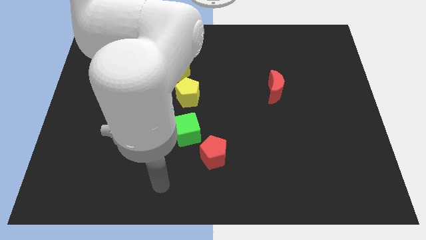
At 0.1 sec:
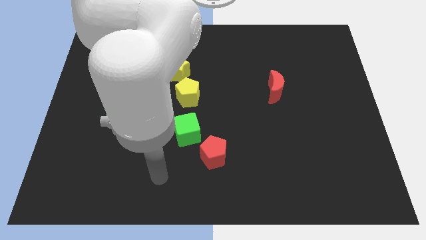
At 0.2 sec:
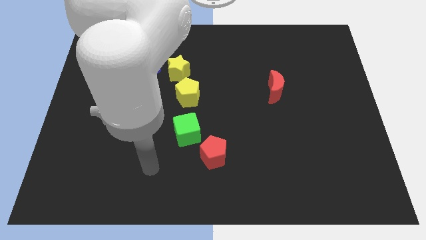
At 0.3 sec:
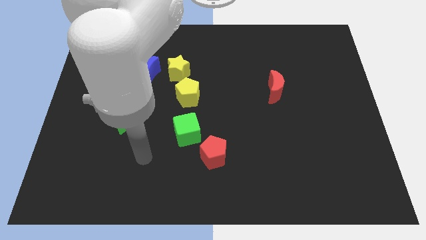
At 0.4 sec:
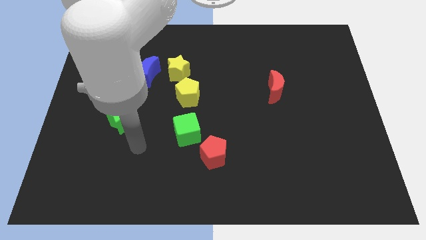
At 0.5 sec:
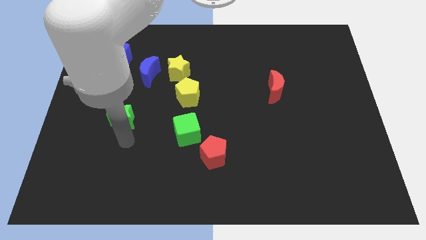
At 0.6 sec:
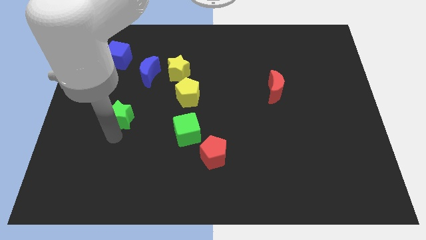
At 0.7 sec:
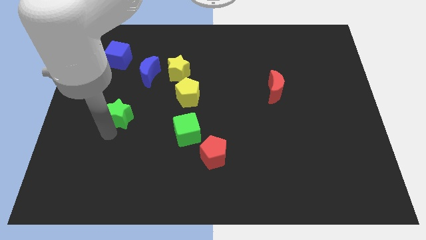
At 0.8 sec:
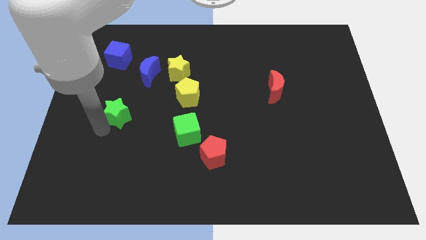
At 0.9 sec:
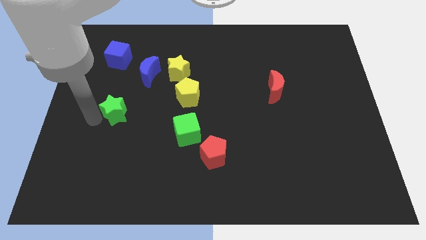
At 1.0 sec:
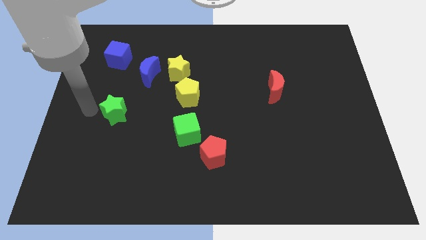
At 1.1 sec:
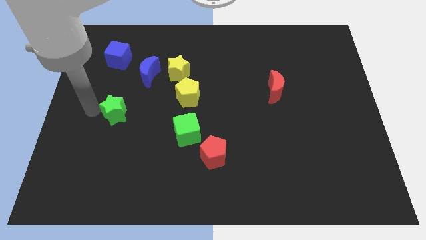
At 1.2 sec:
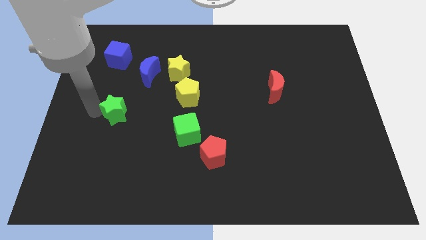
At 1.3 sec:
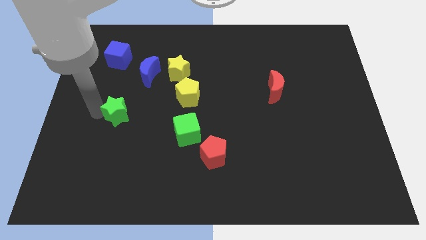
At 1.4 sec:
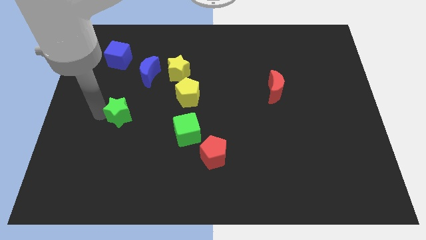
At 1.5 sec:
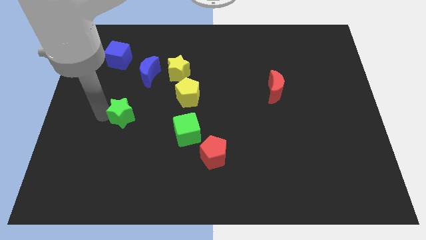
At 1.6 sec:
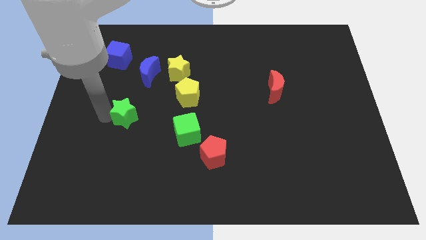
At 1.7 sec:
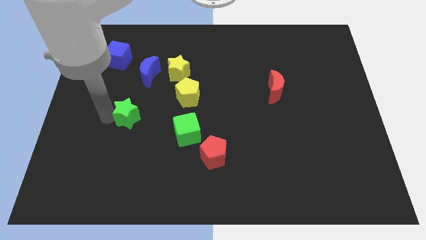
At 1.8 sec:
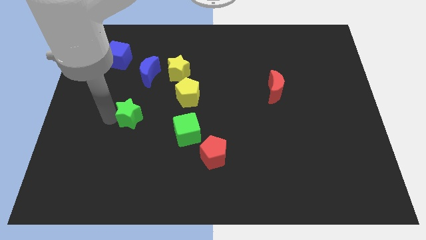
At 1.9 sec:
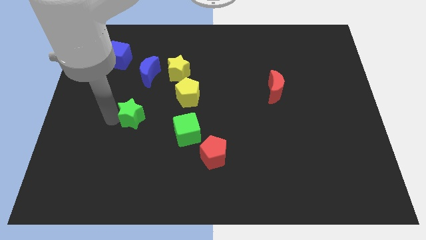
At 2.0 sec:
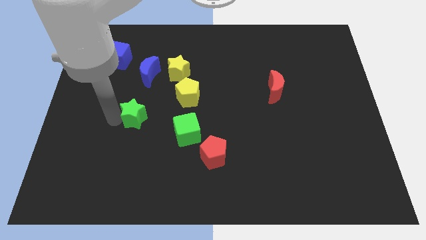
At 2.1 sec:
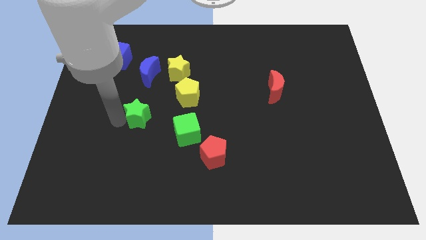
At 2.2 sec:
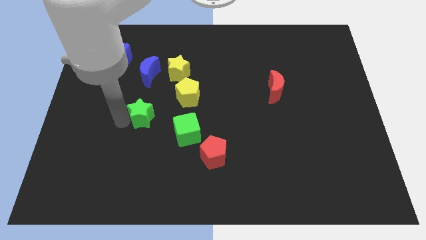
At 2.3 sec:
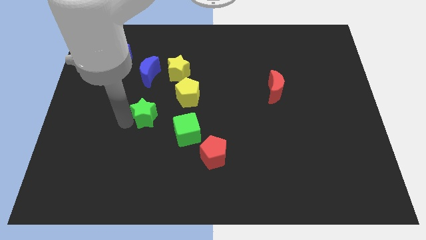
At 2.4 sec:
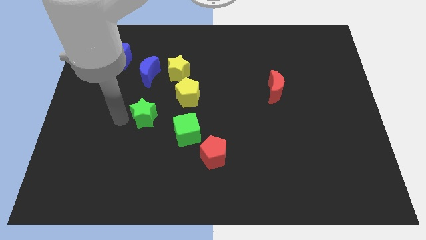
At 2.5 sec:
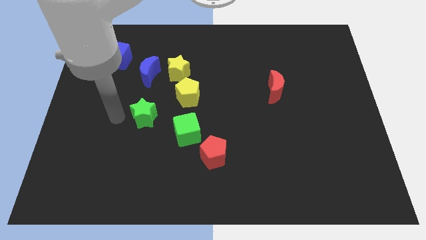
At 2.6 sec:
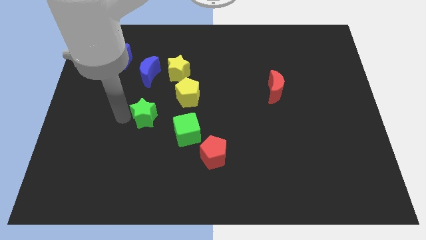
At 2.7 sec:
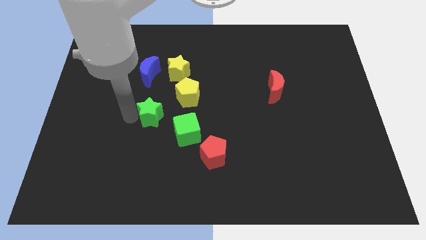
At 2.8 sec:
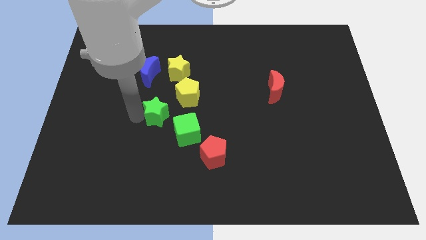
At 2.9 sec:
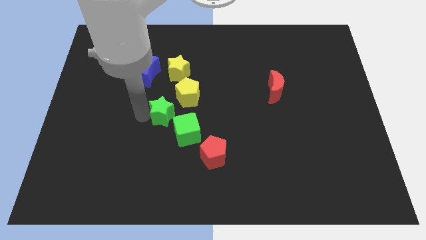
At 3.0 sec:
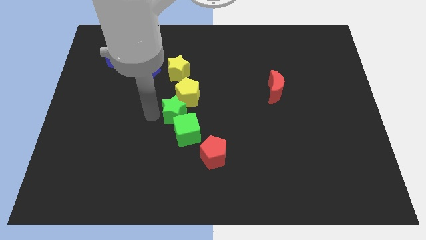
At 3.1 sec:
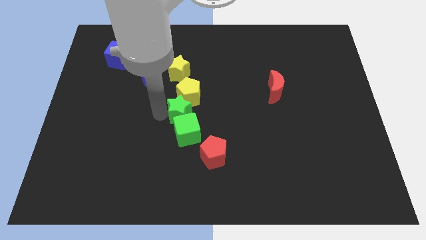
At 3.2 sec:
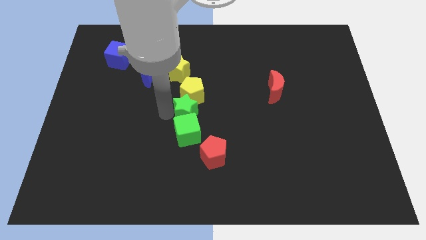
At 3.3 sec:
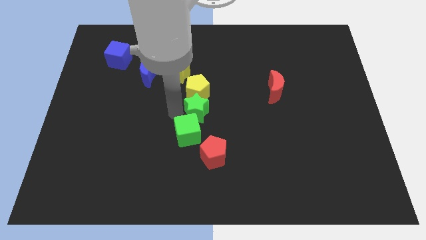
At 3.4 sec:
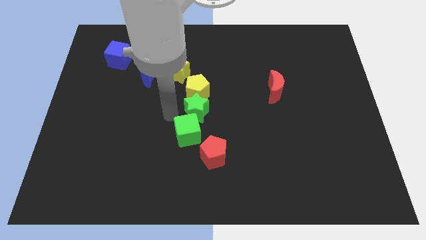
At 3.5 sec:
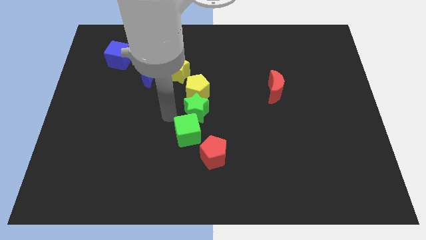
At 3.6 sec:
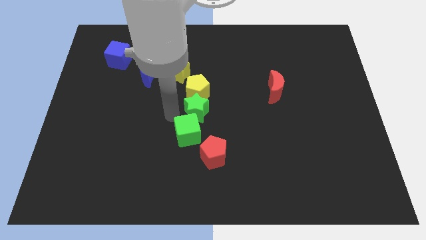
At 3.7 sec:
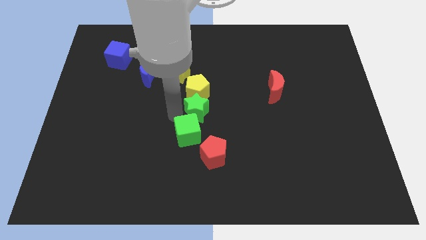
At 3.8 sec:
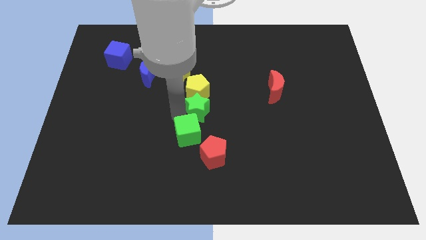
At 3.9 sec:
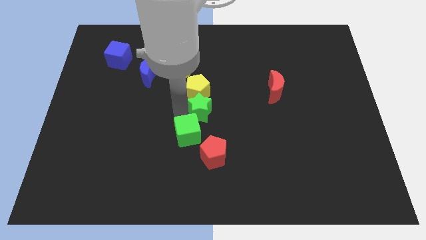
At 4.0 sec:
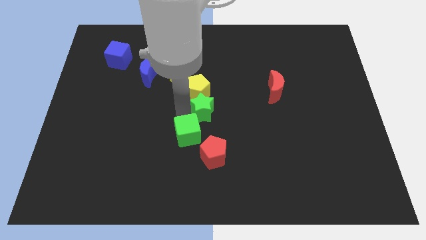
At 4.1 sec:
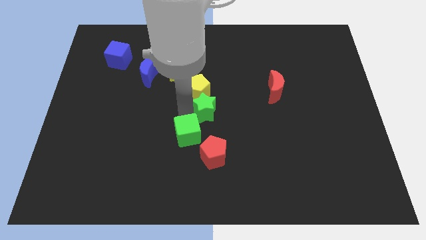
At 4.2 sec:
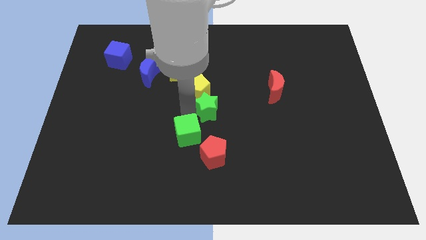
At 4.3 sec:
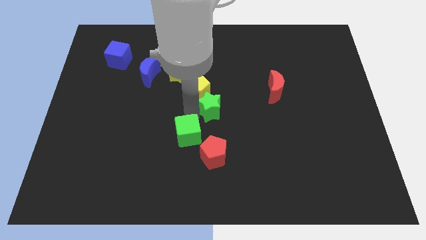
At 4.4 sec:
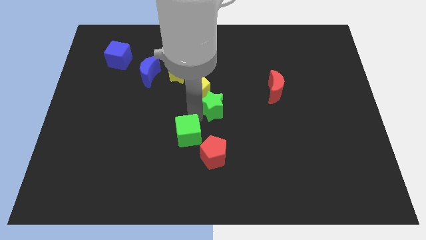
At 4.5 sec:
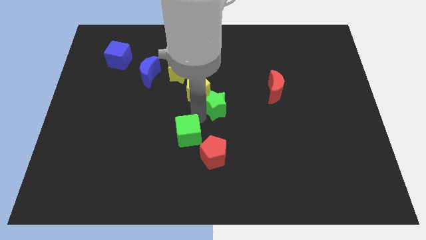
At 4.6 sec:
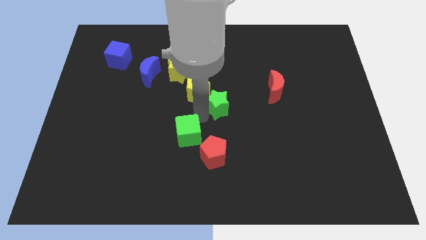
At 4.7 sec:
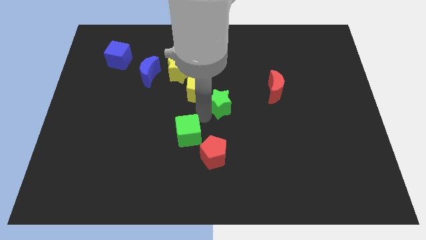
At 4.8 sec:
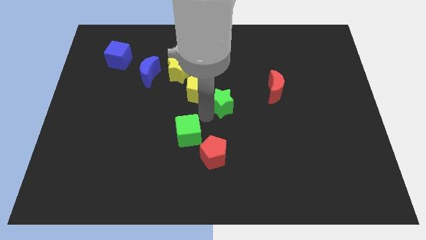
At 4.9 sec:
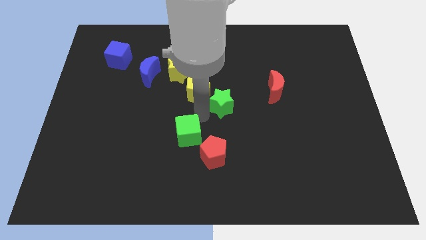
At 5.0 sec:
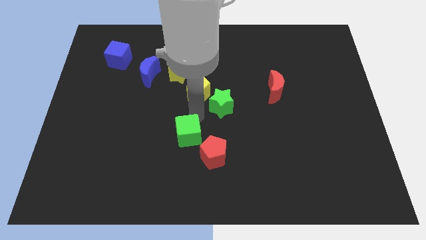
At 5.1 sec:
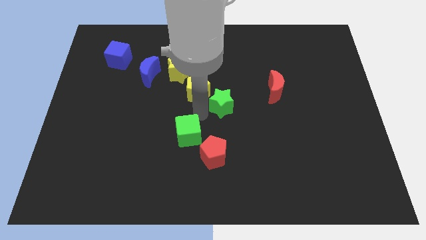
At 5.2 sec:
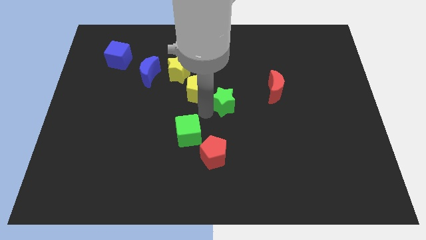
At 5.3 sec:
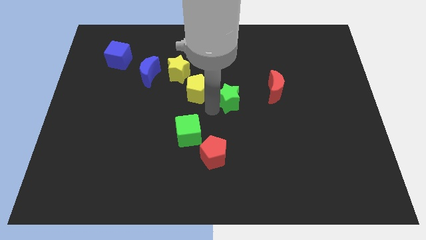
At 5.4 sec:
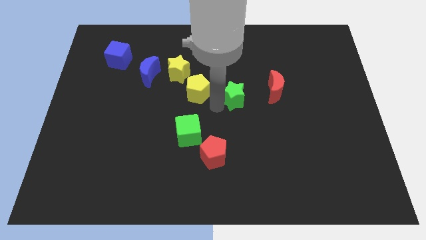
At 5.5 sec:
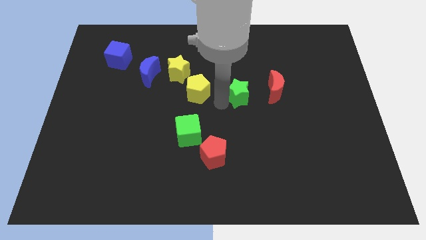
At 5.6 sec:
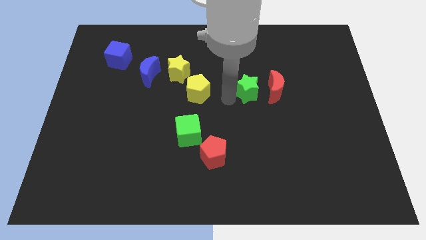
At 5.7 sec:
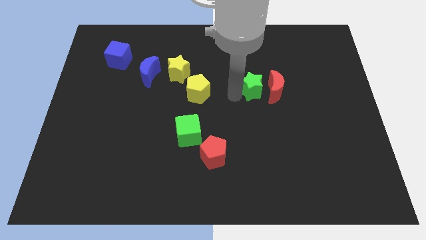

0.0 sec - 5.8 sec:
move the green star close to the red moon
